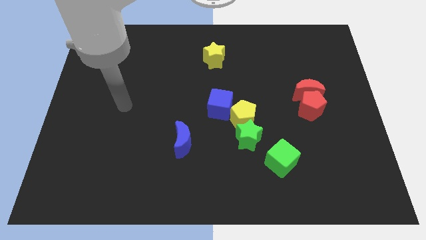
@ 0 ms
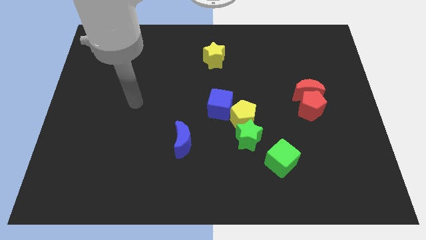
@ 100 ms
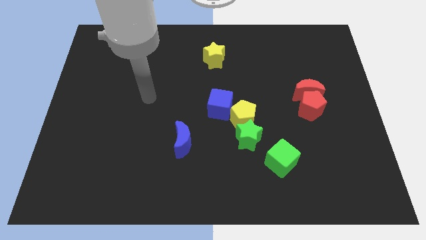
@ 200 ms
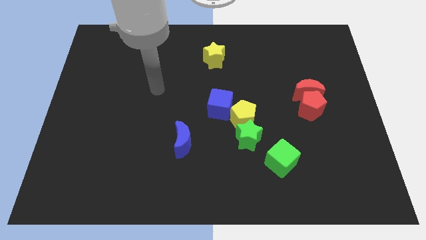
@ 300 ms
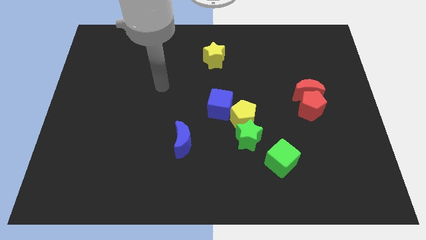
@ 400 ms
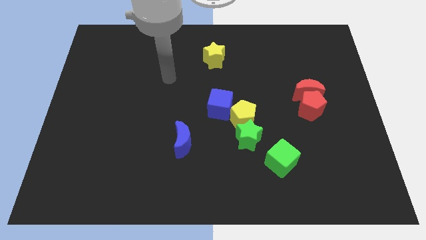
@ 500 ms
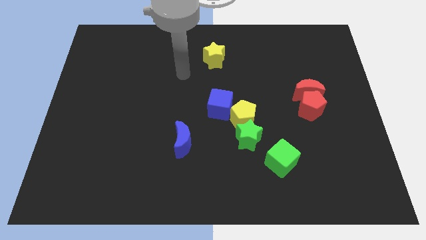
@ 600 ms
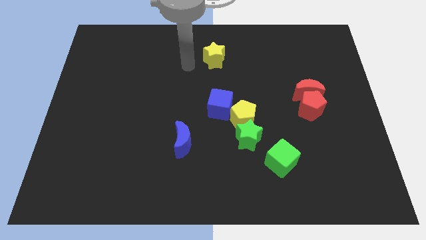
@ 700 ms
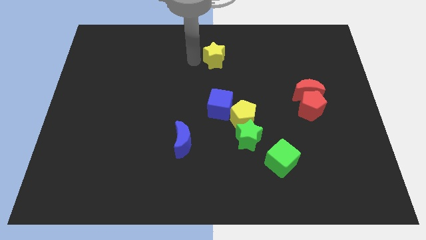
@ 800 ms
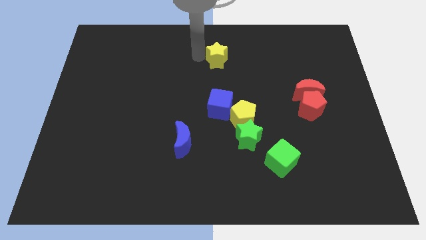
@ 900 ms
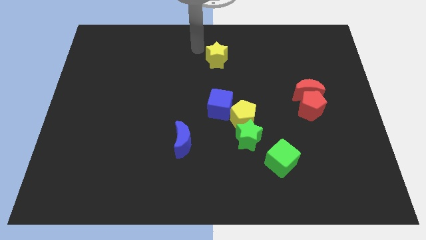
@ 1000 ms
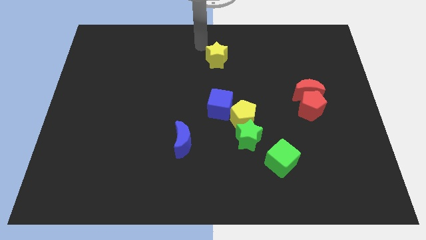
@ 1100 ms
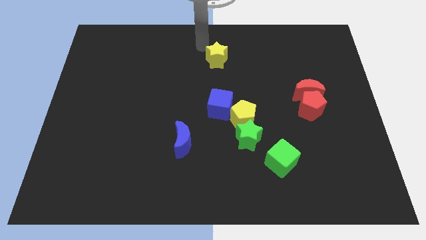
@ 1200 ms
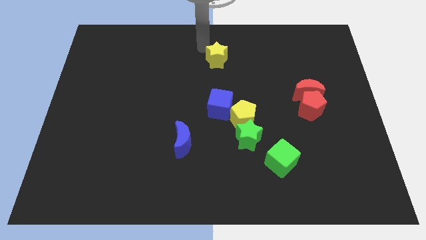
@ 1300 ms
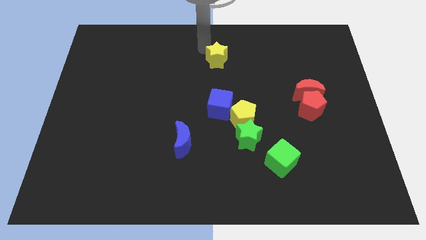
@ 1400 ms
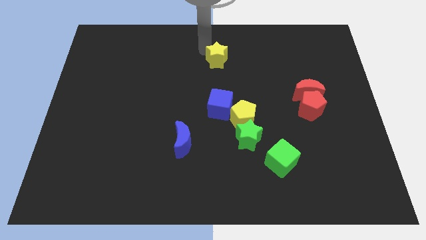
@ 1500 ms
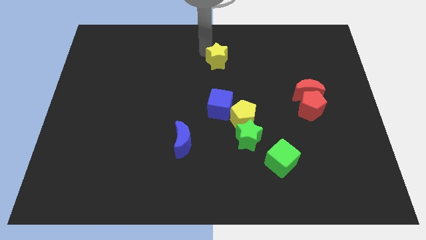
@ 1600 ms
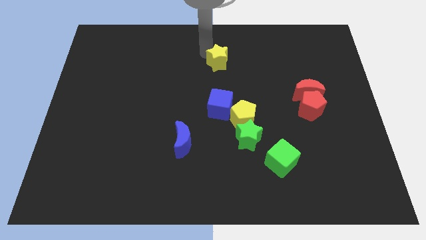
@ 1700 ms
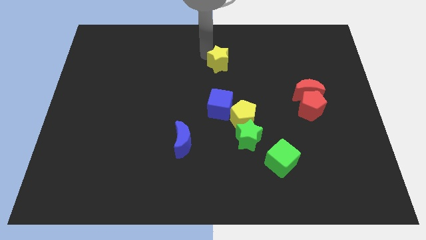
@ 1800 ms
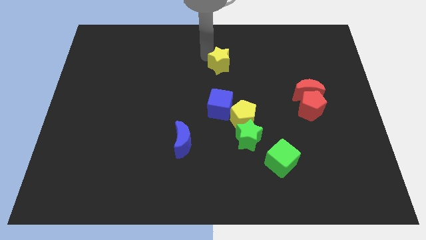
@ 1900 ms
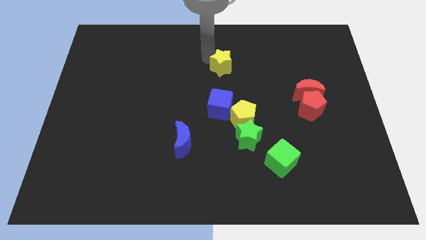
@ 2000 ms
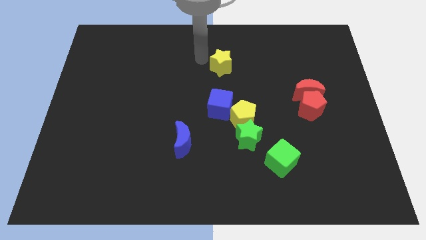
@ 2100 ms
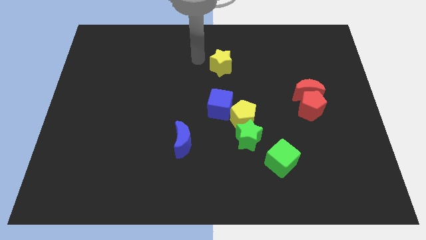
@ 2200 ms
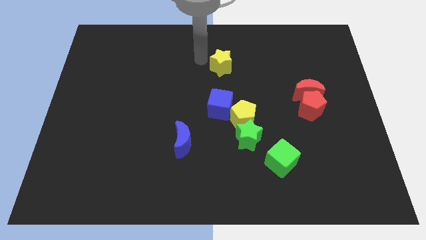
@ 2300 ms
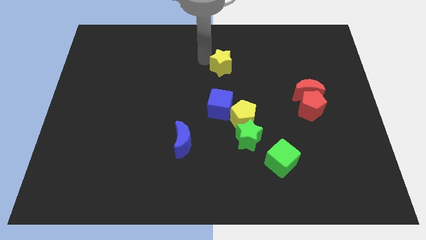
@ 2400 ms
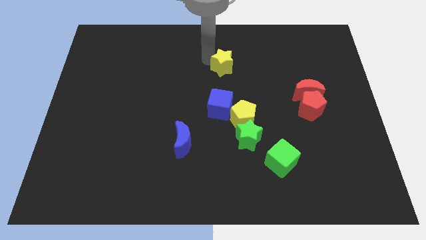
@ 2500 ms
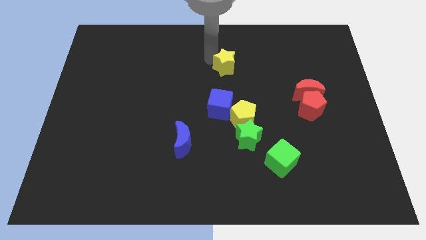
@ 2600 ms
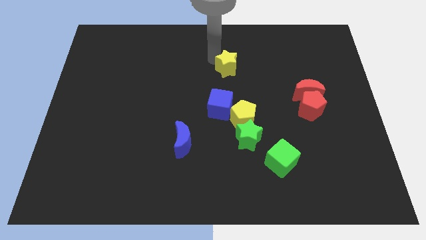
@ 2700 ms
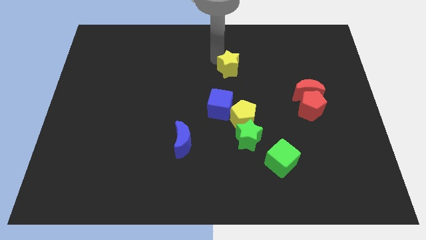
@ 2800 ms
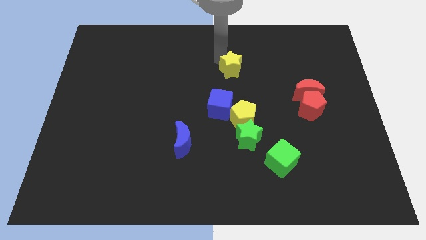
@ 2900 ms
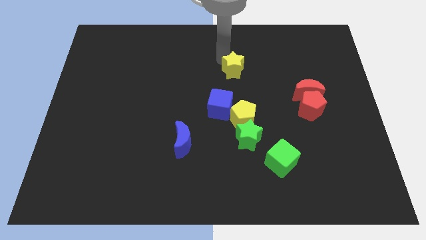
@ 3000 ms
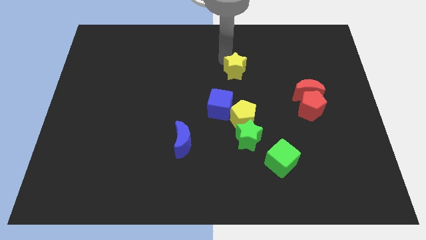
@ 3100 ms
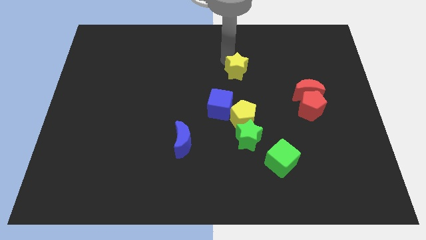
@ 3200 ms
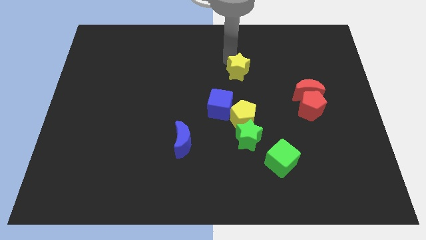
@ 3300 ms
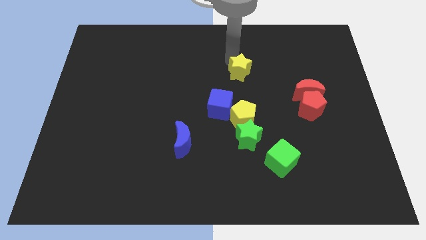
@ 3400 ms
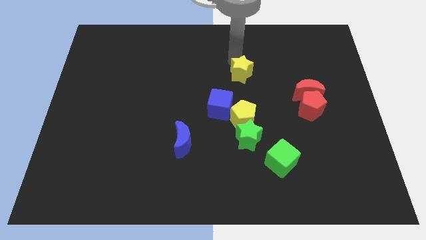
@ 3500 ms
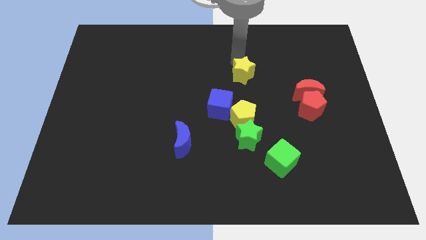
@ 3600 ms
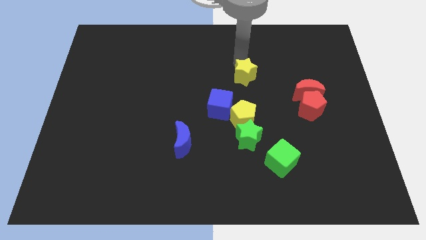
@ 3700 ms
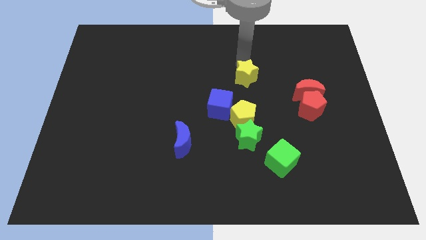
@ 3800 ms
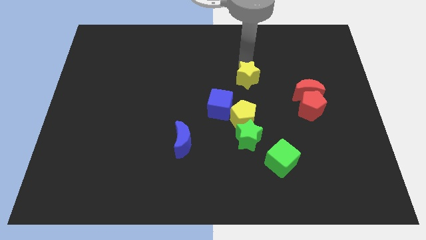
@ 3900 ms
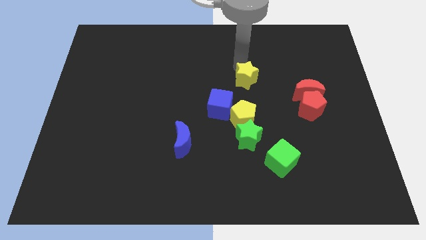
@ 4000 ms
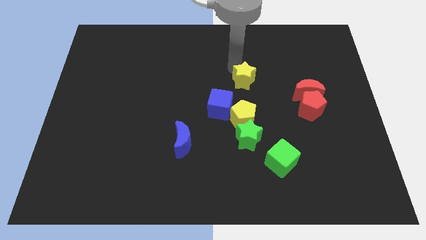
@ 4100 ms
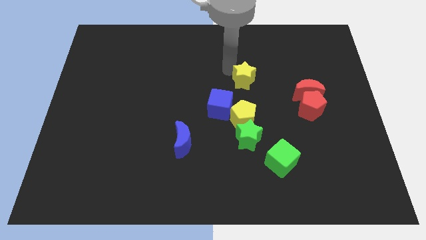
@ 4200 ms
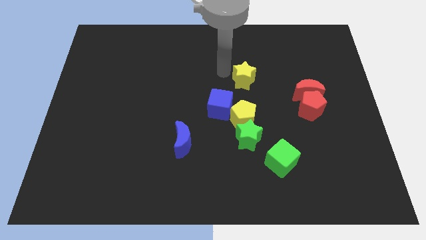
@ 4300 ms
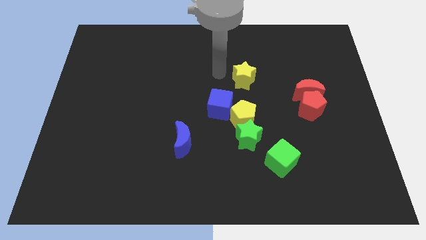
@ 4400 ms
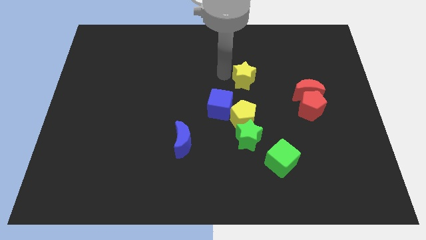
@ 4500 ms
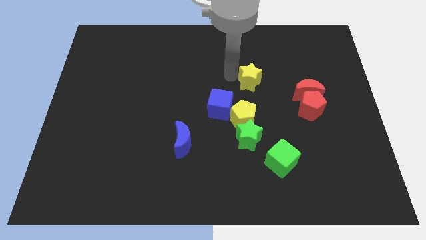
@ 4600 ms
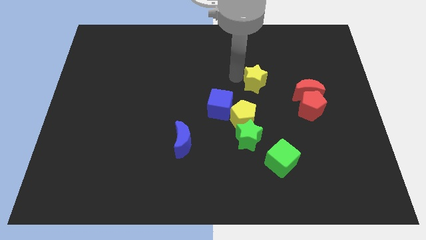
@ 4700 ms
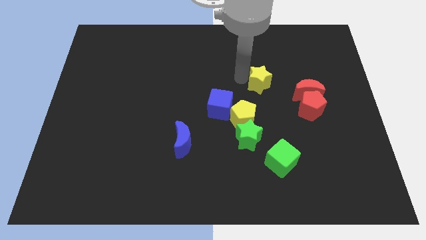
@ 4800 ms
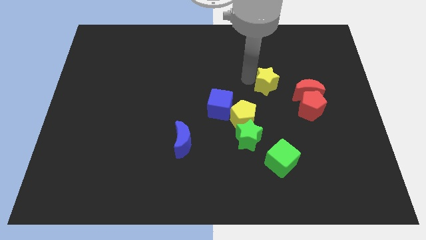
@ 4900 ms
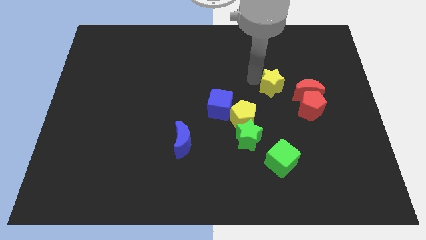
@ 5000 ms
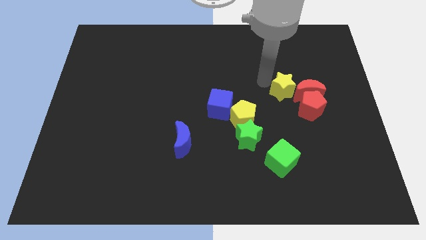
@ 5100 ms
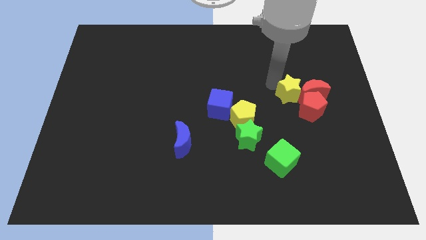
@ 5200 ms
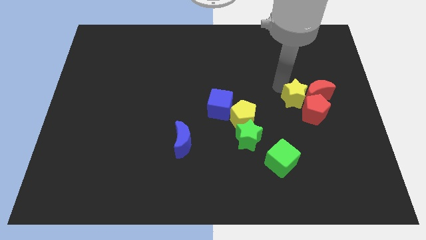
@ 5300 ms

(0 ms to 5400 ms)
move the yellow star next to the red pentagon

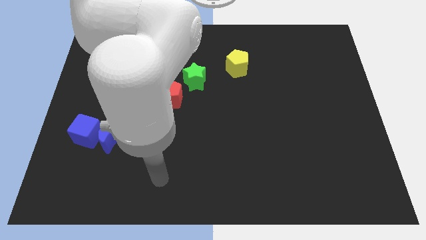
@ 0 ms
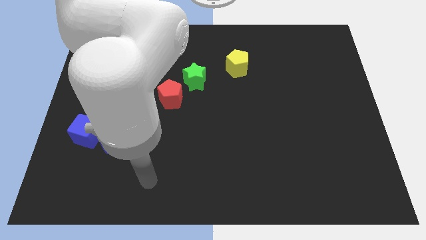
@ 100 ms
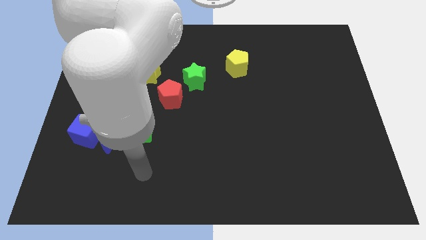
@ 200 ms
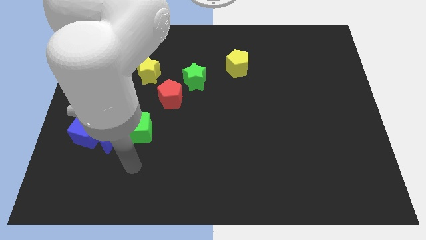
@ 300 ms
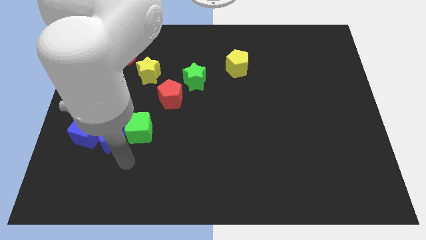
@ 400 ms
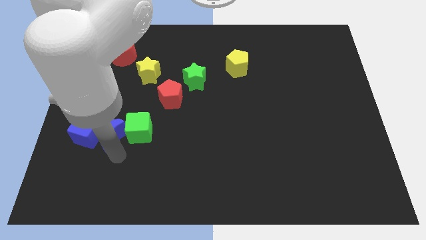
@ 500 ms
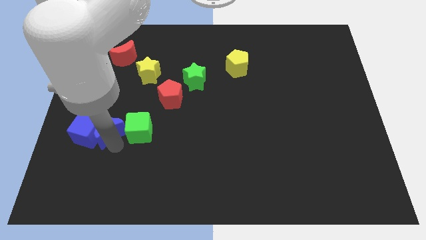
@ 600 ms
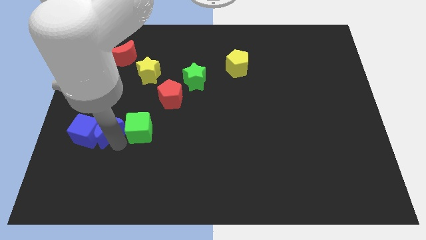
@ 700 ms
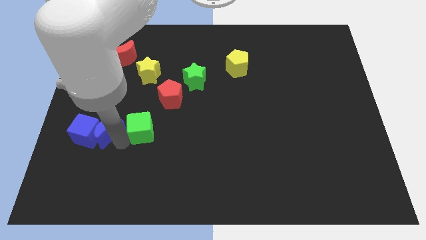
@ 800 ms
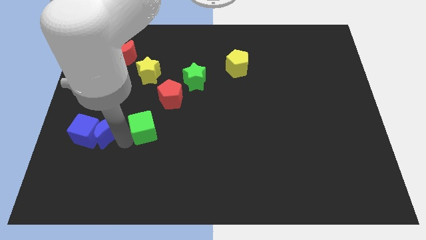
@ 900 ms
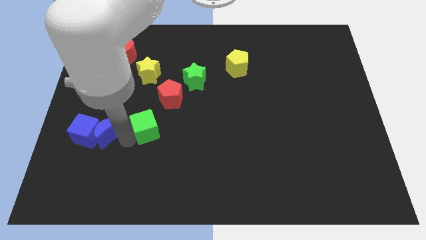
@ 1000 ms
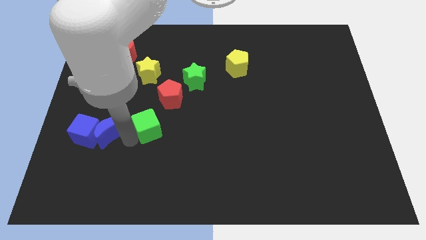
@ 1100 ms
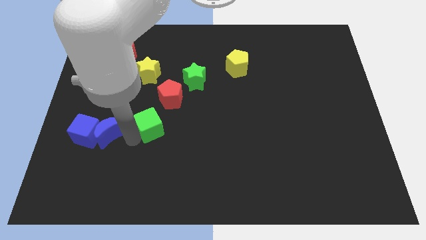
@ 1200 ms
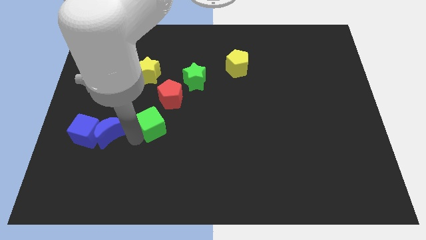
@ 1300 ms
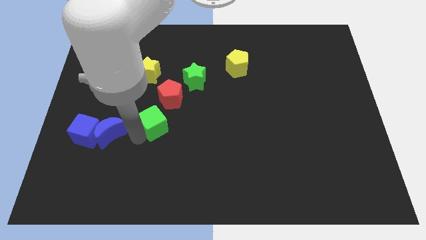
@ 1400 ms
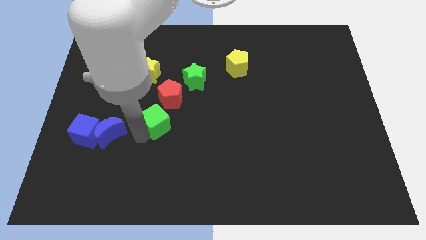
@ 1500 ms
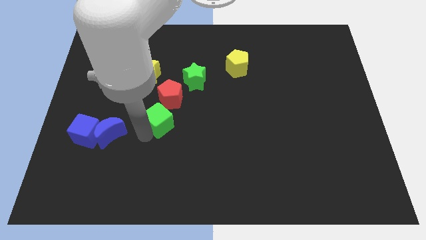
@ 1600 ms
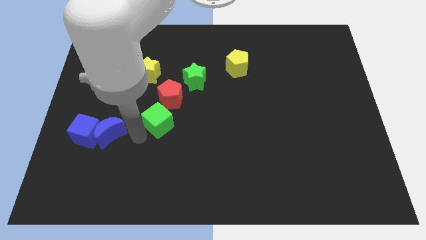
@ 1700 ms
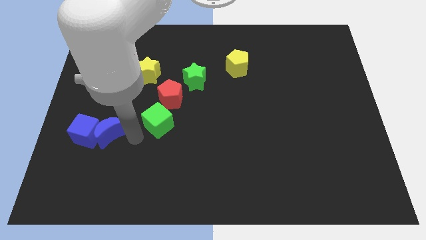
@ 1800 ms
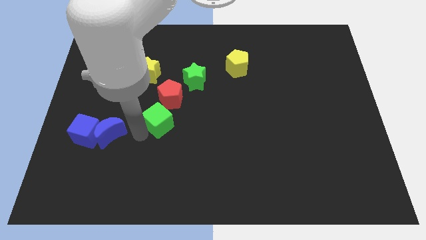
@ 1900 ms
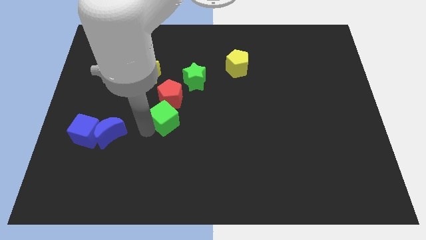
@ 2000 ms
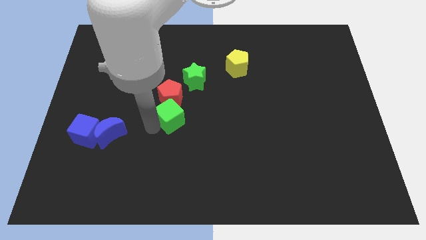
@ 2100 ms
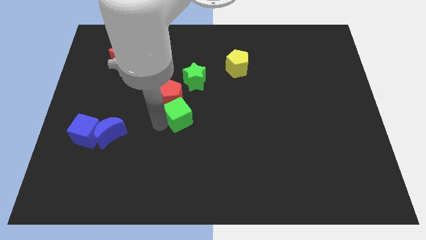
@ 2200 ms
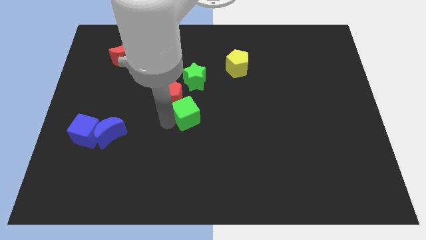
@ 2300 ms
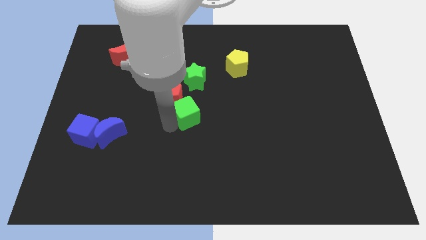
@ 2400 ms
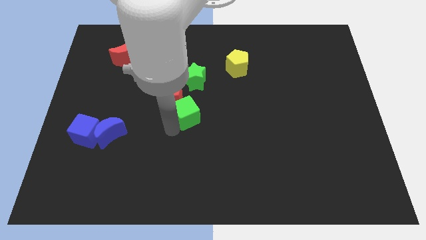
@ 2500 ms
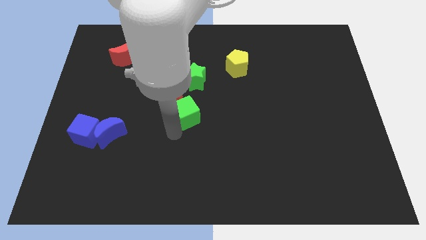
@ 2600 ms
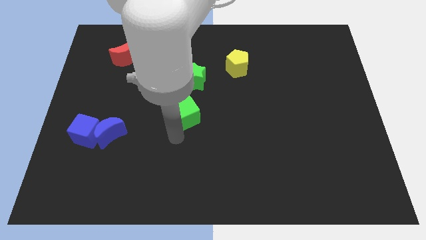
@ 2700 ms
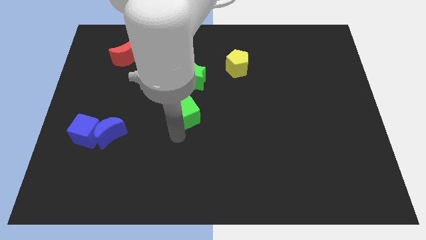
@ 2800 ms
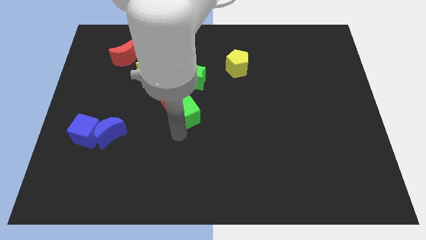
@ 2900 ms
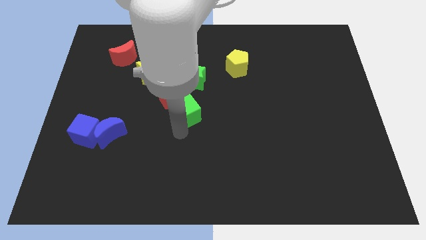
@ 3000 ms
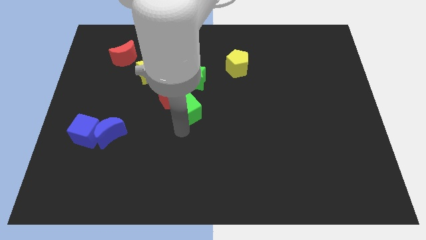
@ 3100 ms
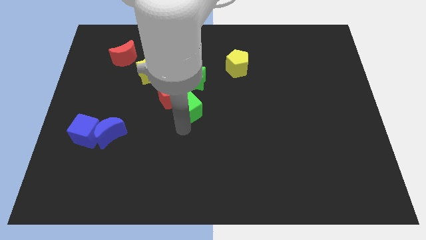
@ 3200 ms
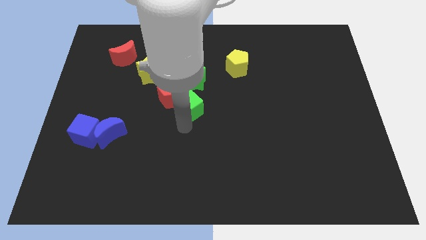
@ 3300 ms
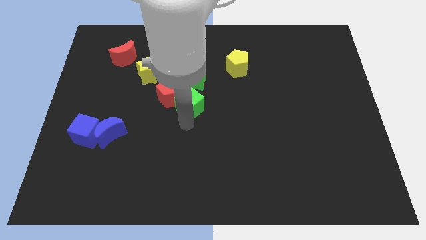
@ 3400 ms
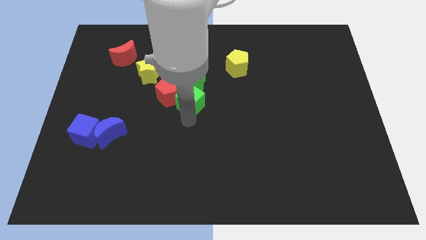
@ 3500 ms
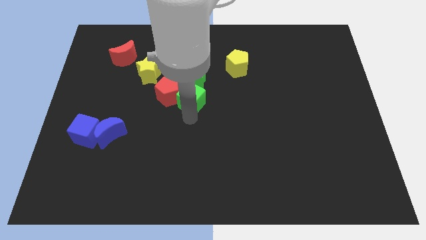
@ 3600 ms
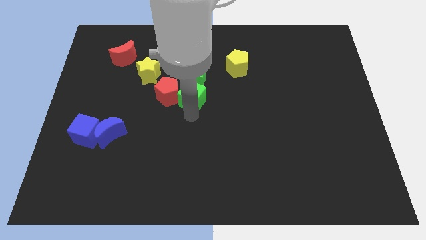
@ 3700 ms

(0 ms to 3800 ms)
put the green cube close to the green star
